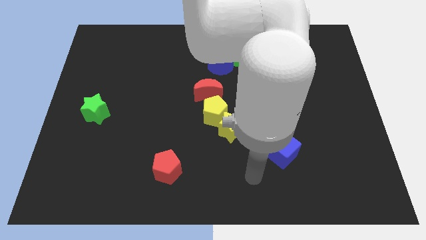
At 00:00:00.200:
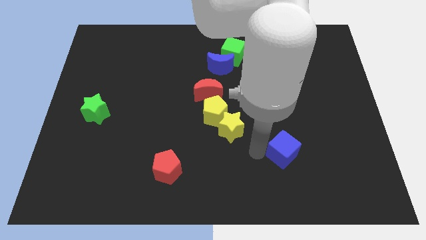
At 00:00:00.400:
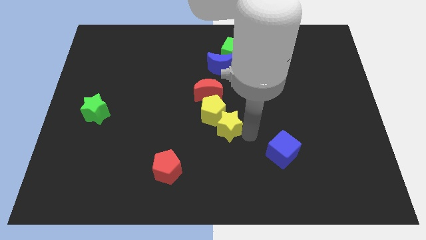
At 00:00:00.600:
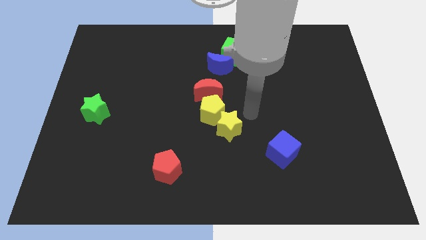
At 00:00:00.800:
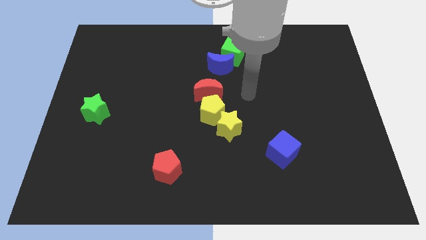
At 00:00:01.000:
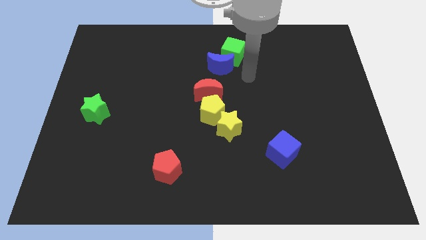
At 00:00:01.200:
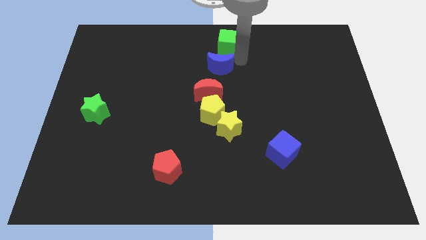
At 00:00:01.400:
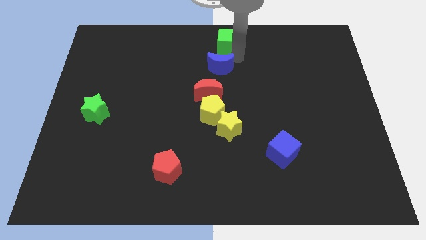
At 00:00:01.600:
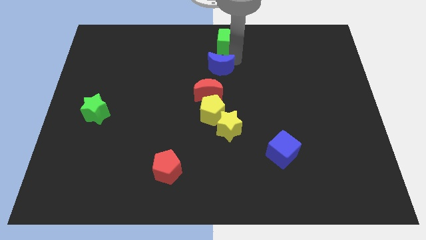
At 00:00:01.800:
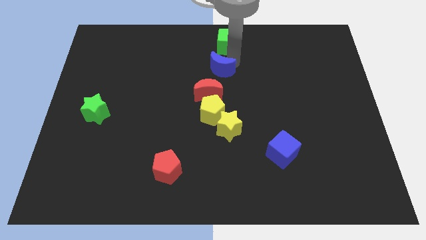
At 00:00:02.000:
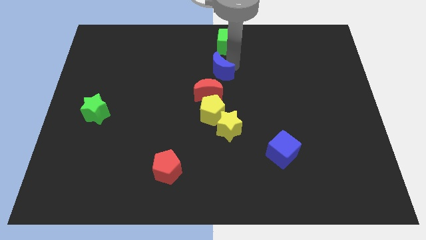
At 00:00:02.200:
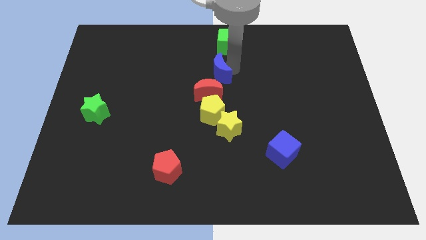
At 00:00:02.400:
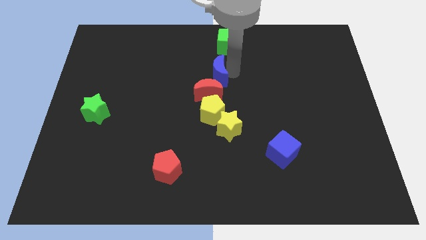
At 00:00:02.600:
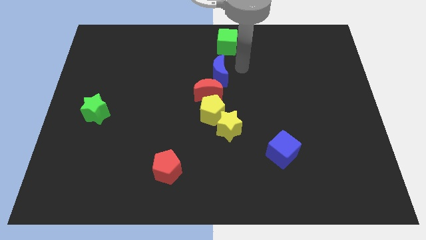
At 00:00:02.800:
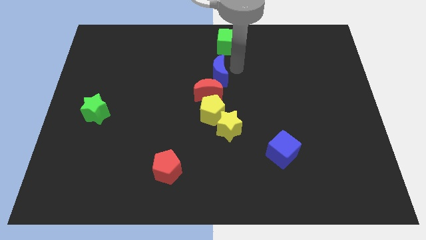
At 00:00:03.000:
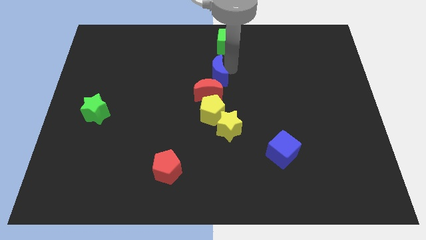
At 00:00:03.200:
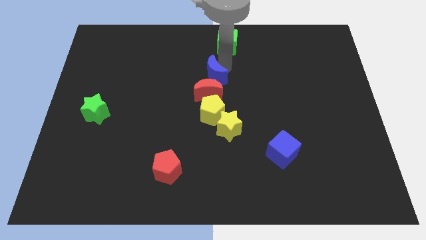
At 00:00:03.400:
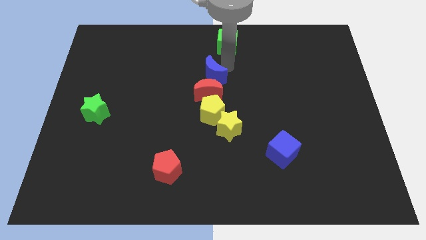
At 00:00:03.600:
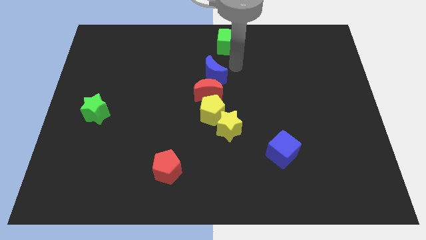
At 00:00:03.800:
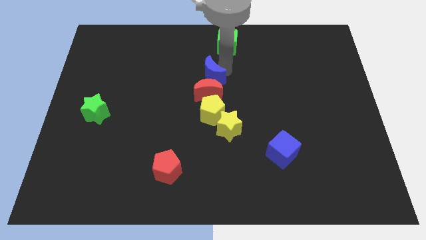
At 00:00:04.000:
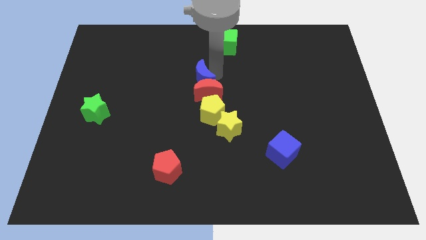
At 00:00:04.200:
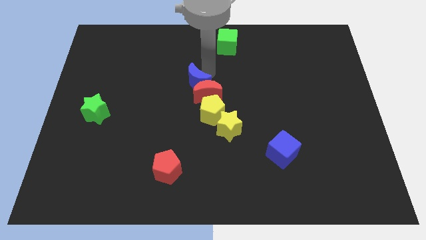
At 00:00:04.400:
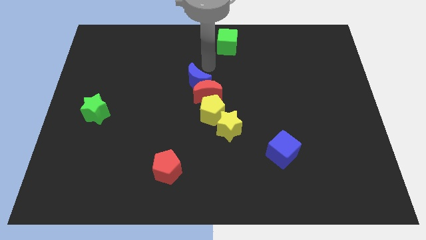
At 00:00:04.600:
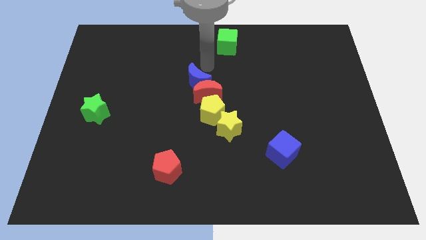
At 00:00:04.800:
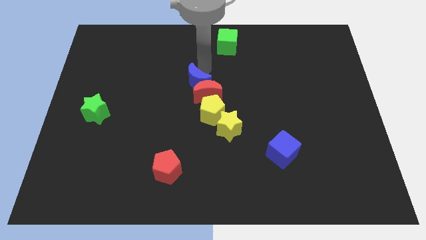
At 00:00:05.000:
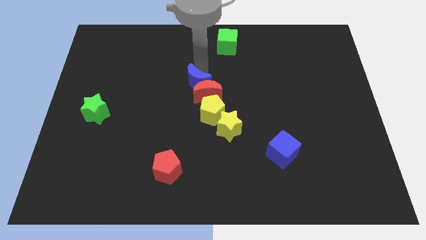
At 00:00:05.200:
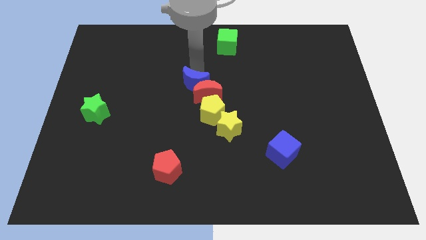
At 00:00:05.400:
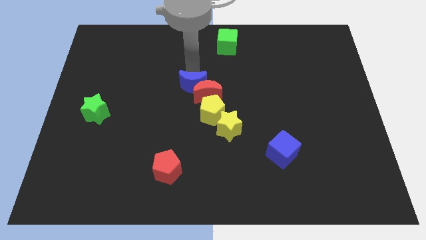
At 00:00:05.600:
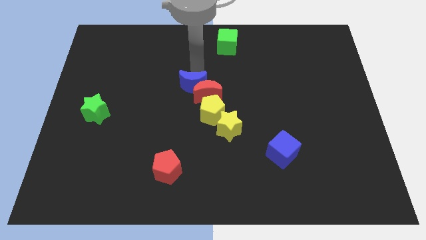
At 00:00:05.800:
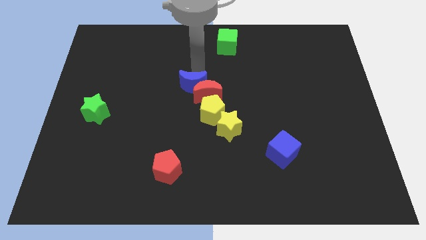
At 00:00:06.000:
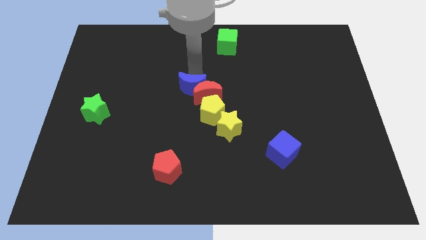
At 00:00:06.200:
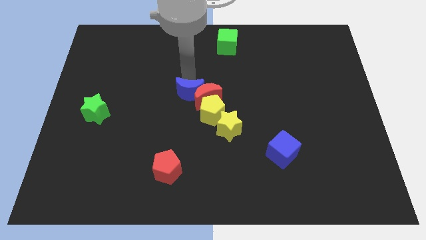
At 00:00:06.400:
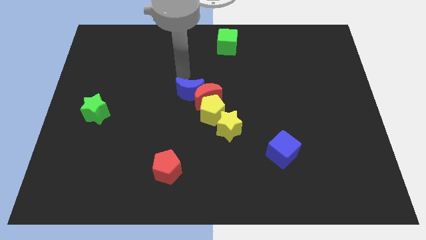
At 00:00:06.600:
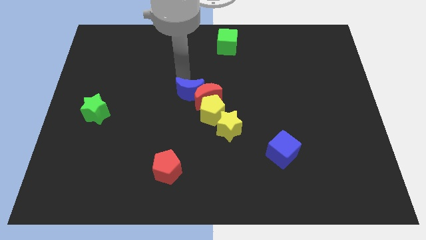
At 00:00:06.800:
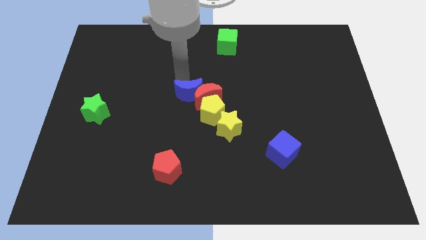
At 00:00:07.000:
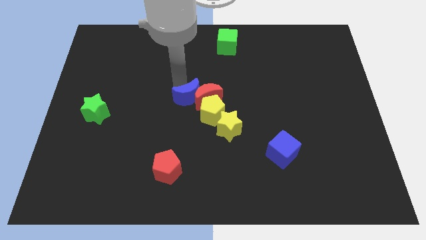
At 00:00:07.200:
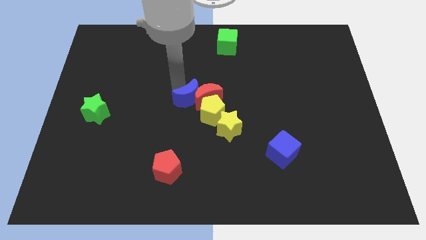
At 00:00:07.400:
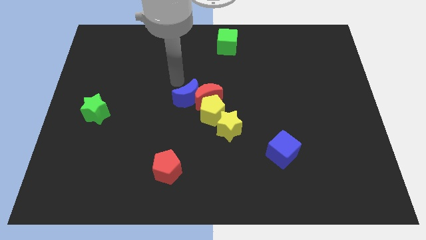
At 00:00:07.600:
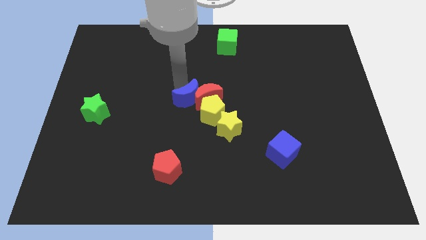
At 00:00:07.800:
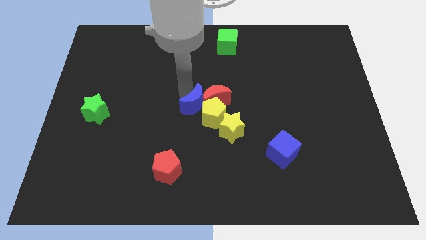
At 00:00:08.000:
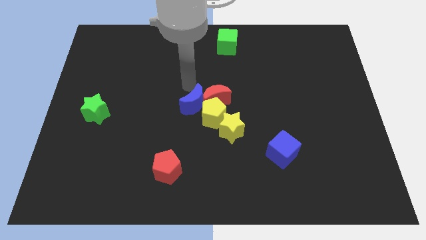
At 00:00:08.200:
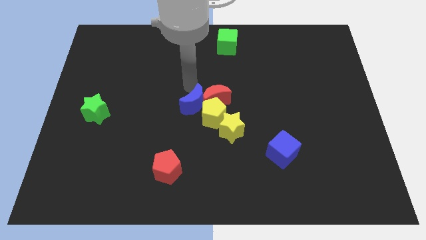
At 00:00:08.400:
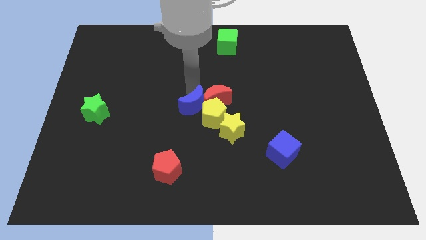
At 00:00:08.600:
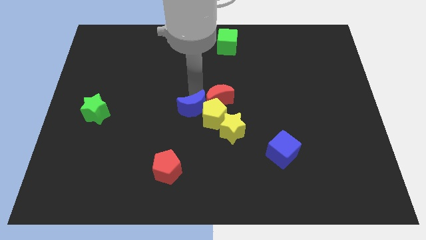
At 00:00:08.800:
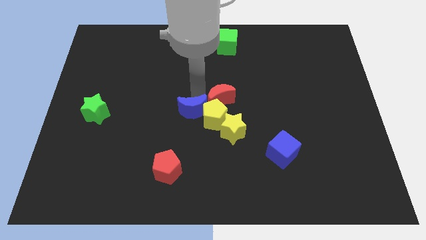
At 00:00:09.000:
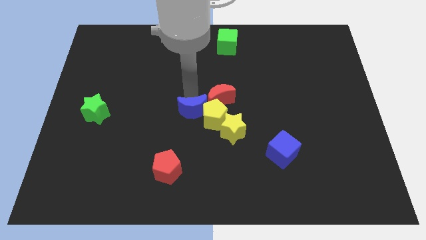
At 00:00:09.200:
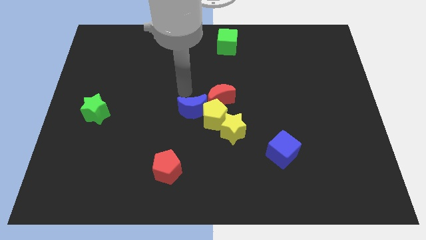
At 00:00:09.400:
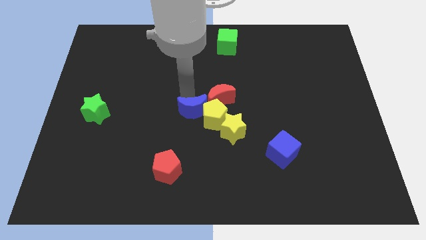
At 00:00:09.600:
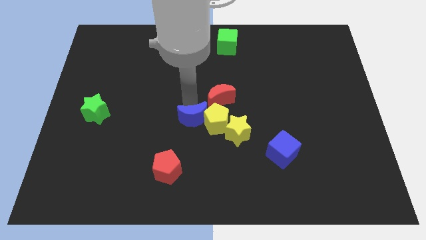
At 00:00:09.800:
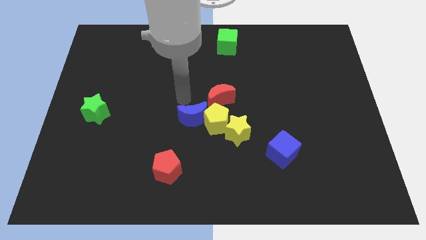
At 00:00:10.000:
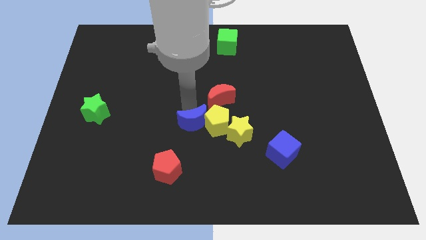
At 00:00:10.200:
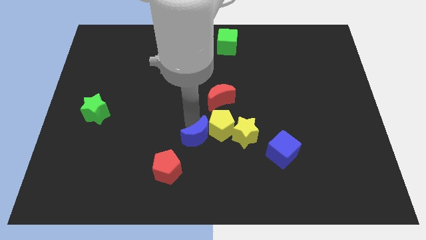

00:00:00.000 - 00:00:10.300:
move the blue moon downwards

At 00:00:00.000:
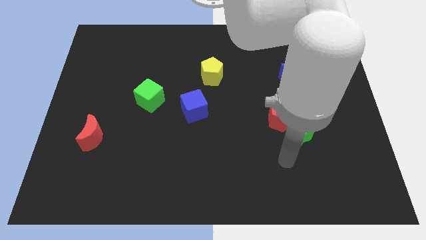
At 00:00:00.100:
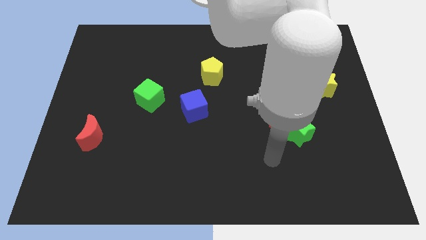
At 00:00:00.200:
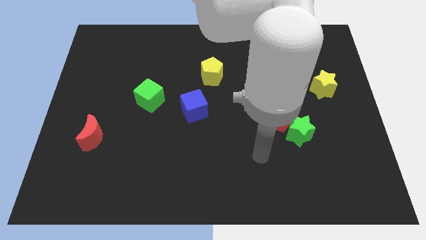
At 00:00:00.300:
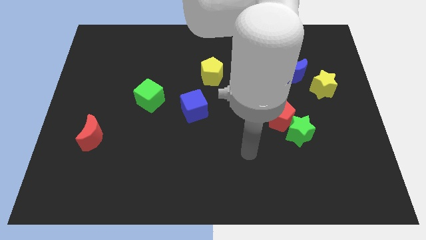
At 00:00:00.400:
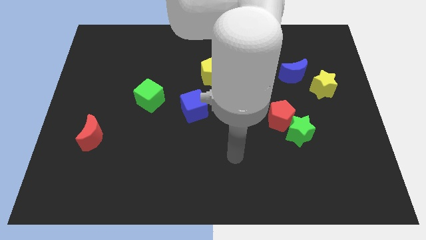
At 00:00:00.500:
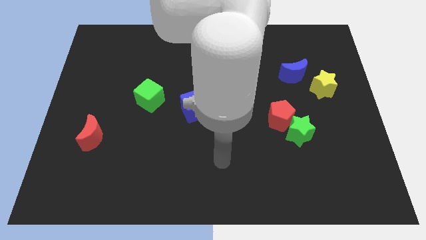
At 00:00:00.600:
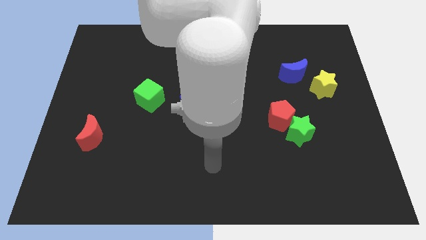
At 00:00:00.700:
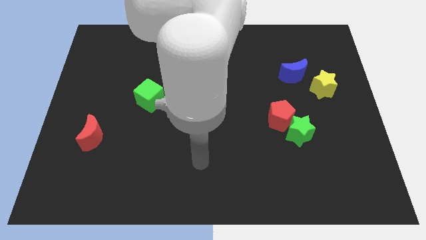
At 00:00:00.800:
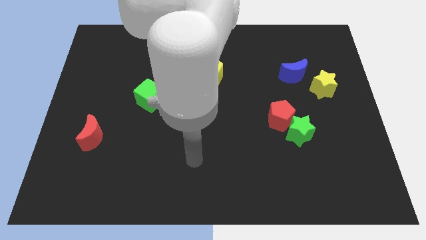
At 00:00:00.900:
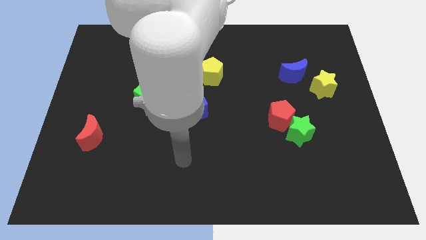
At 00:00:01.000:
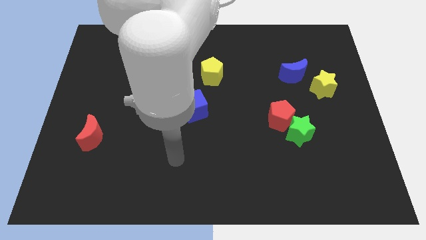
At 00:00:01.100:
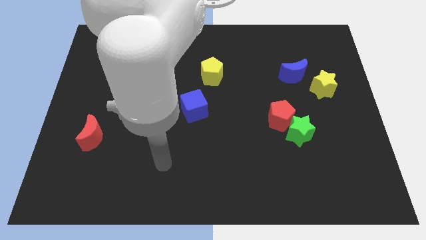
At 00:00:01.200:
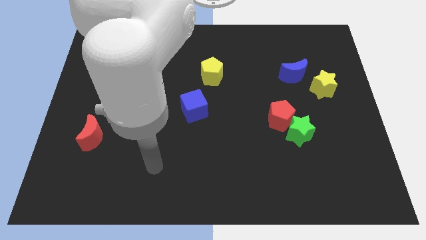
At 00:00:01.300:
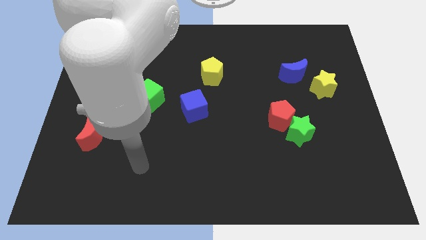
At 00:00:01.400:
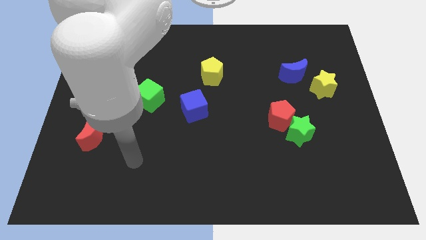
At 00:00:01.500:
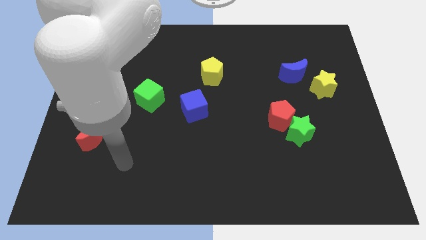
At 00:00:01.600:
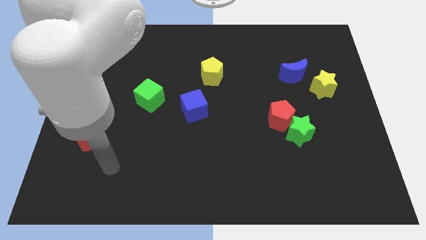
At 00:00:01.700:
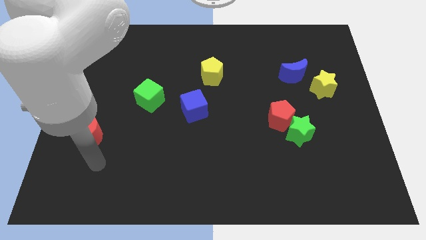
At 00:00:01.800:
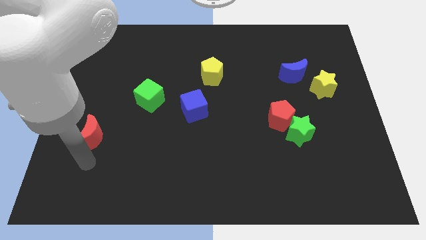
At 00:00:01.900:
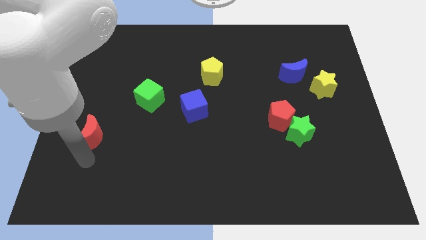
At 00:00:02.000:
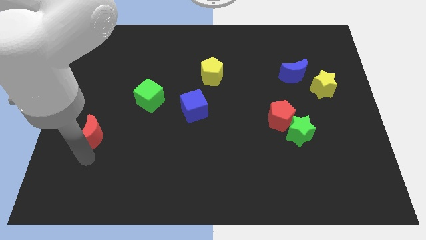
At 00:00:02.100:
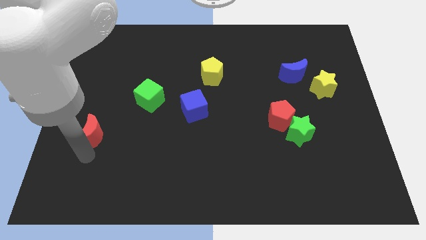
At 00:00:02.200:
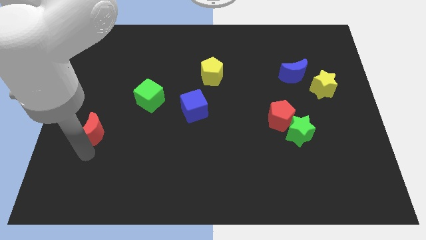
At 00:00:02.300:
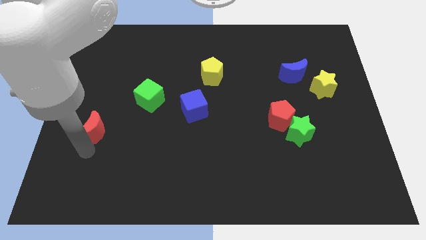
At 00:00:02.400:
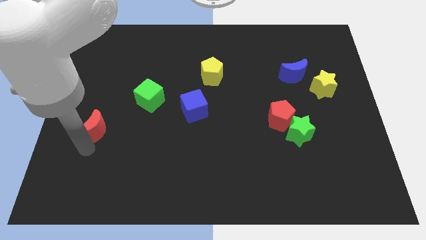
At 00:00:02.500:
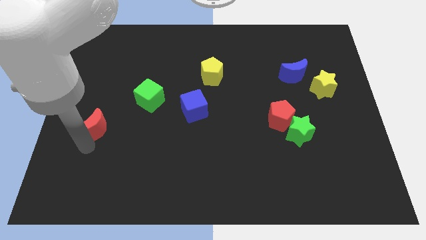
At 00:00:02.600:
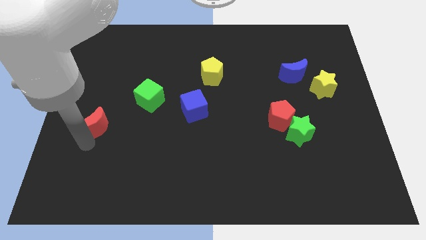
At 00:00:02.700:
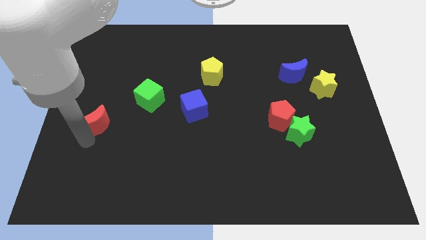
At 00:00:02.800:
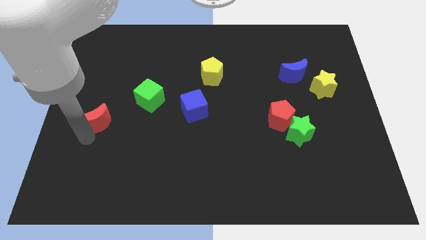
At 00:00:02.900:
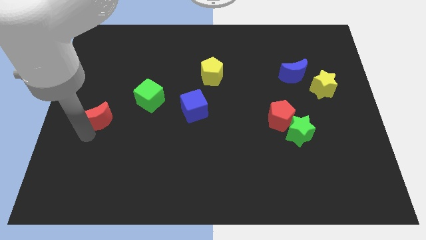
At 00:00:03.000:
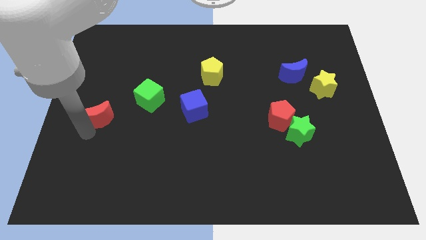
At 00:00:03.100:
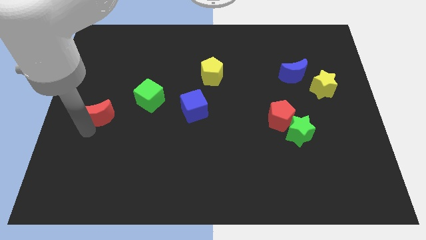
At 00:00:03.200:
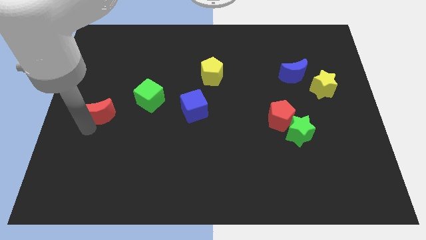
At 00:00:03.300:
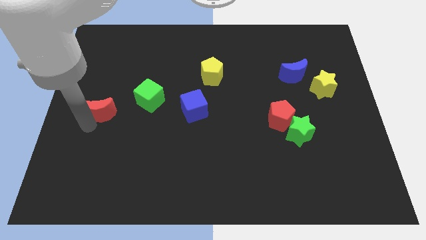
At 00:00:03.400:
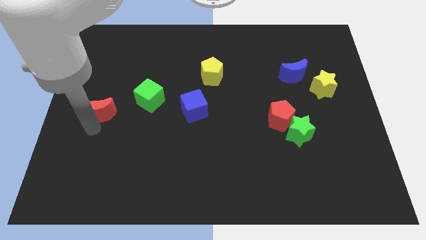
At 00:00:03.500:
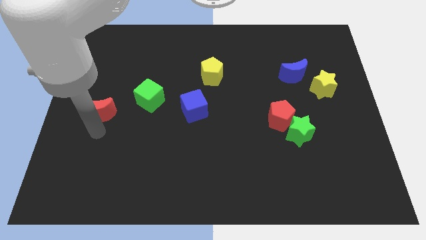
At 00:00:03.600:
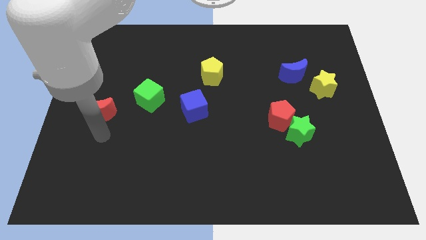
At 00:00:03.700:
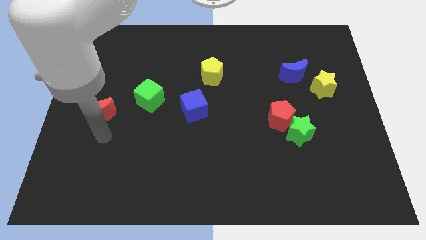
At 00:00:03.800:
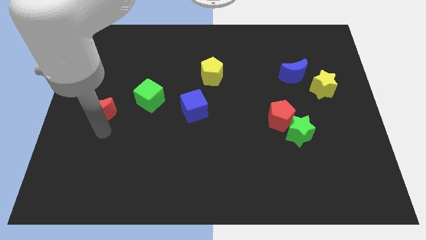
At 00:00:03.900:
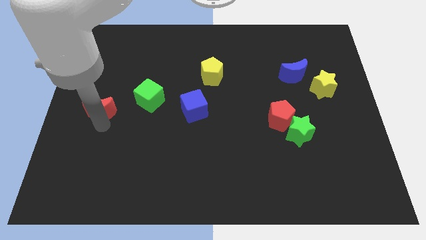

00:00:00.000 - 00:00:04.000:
slightly slide the red moon up
